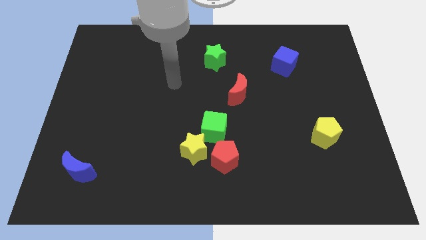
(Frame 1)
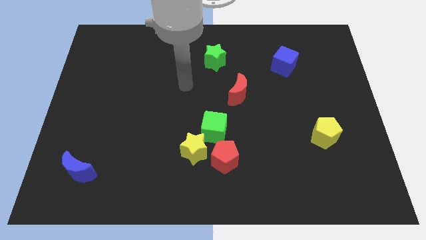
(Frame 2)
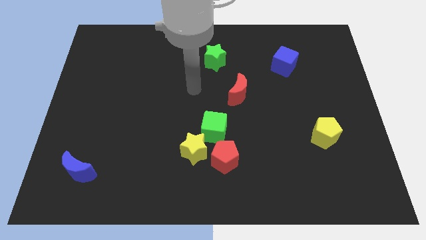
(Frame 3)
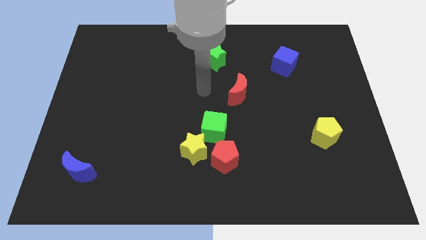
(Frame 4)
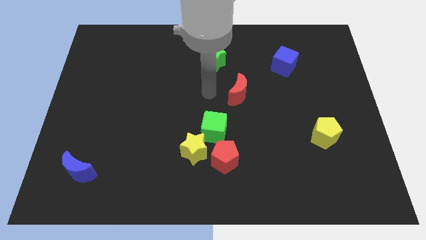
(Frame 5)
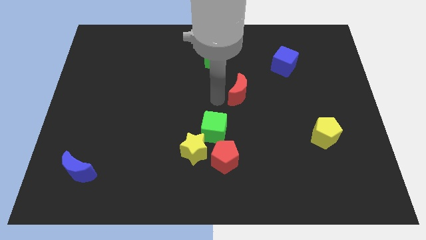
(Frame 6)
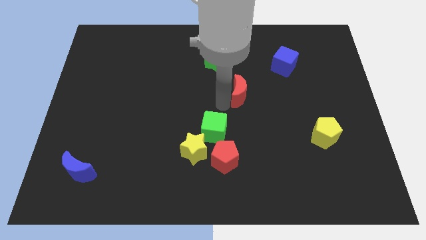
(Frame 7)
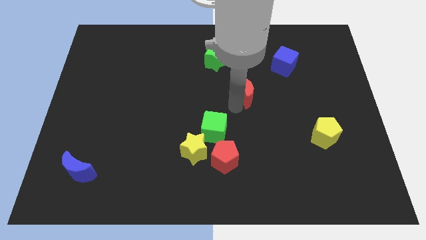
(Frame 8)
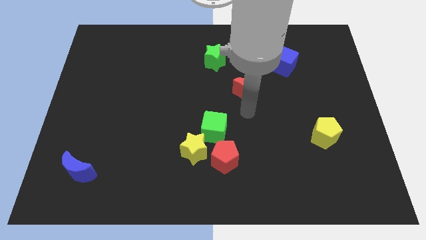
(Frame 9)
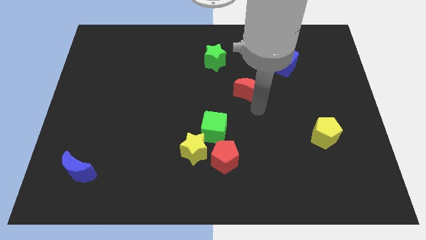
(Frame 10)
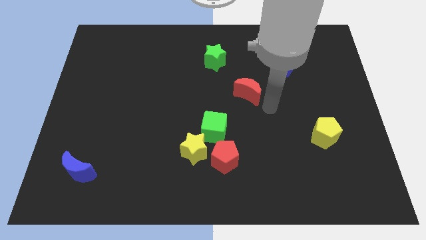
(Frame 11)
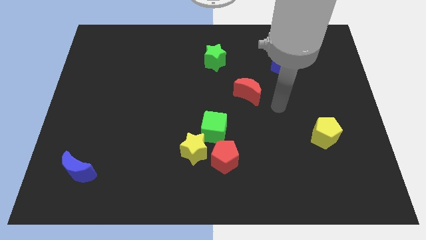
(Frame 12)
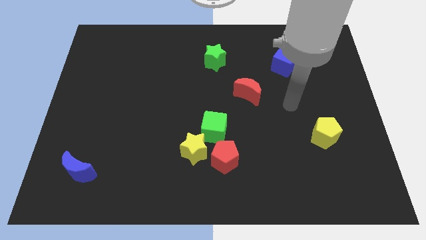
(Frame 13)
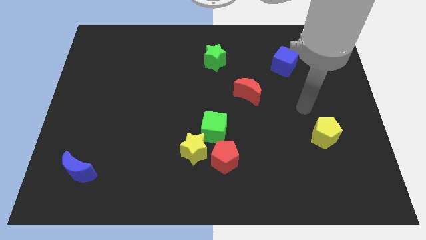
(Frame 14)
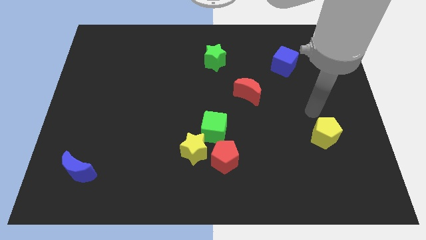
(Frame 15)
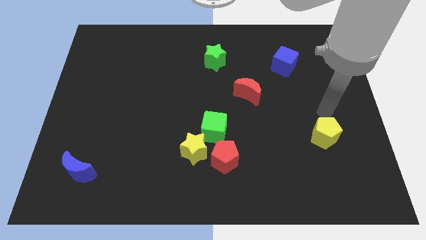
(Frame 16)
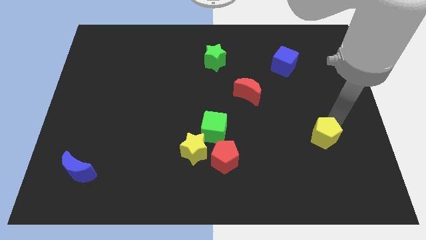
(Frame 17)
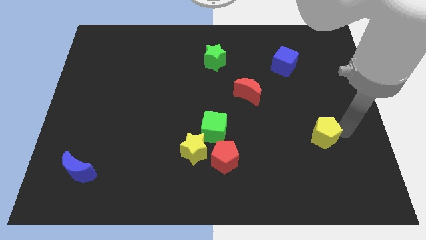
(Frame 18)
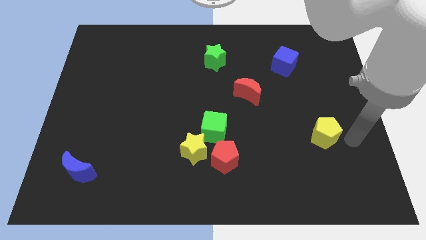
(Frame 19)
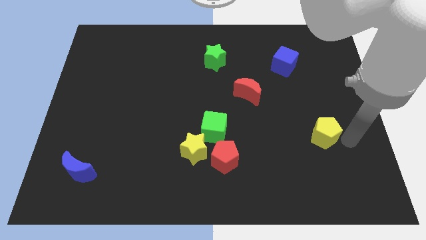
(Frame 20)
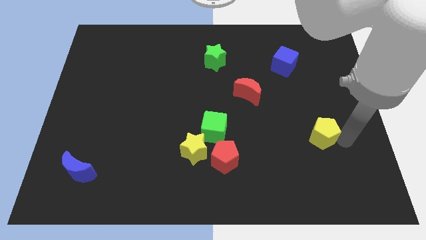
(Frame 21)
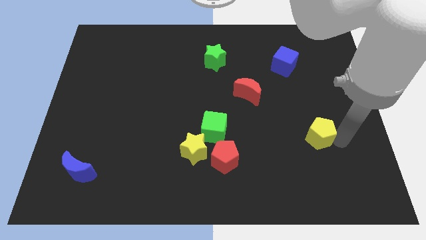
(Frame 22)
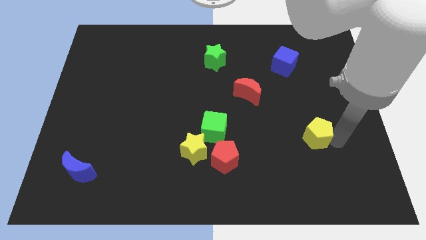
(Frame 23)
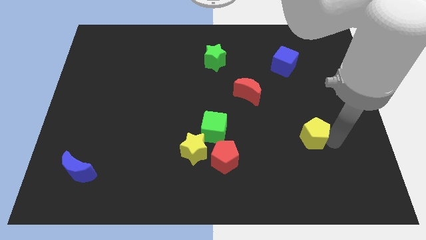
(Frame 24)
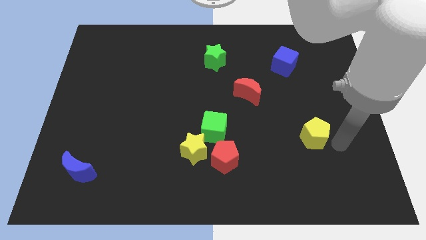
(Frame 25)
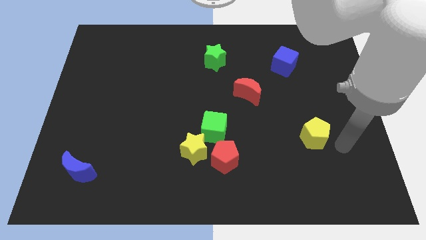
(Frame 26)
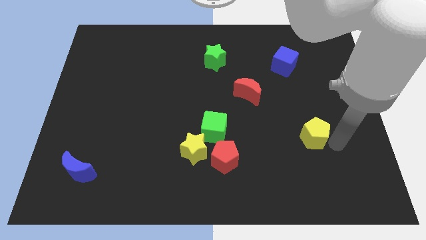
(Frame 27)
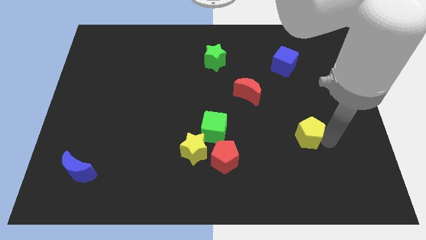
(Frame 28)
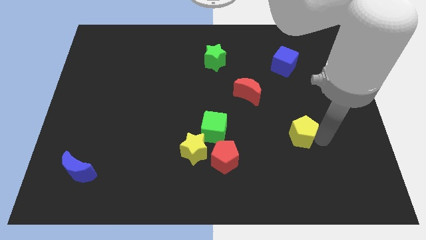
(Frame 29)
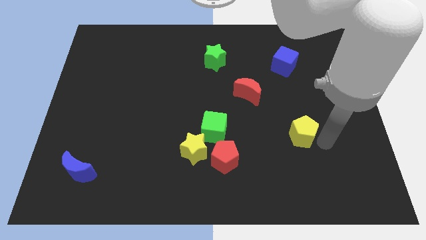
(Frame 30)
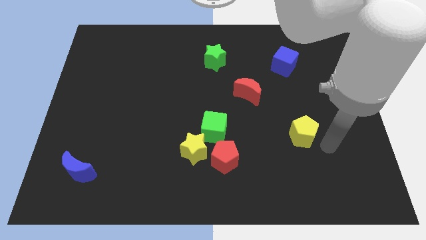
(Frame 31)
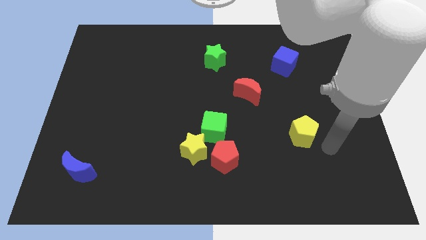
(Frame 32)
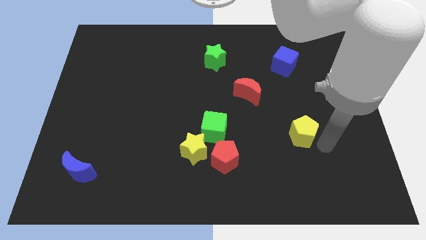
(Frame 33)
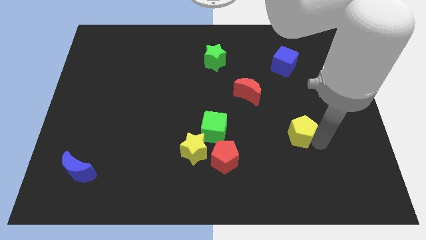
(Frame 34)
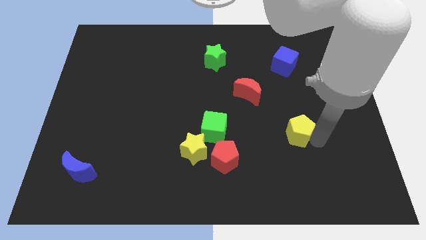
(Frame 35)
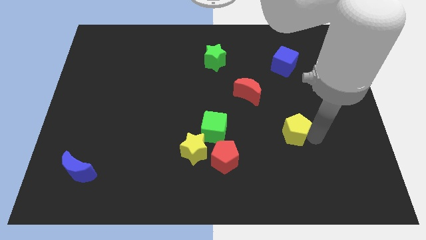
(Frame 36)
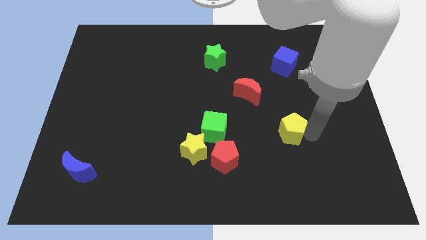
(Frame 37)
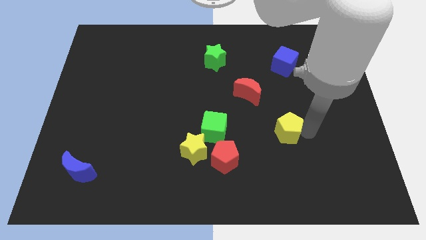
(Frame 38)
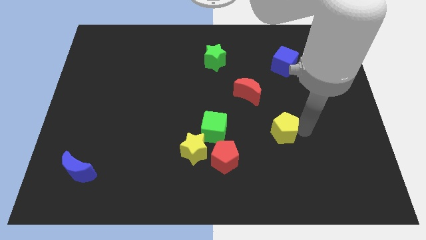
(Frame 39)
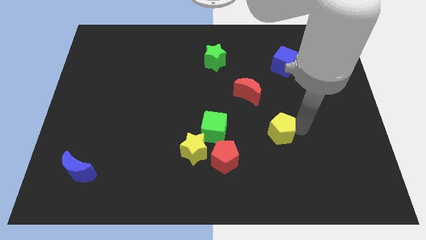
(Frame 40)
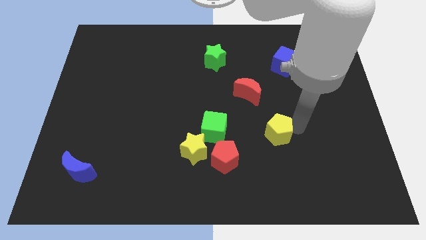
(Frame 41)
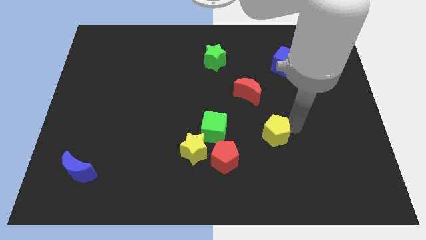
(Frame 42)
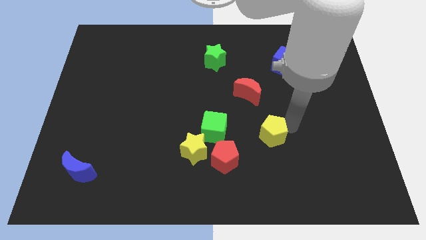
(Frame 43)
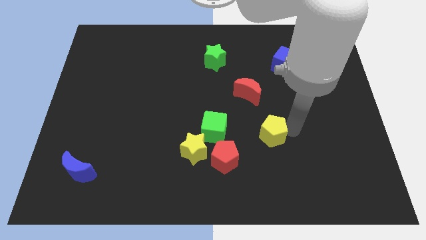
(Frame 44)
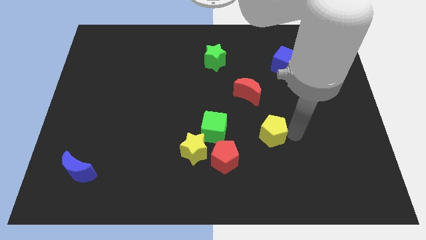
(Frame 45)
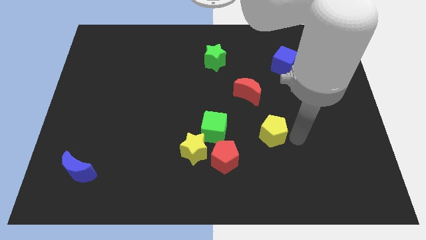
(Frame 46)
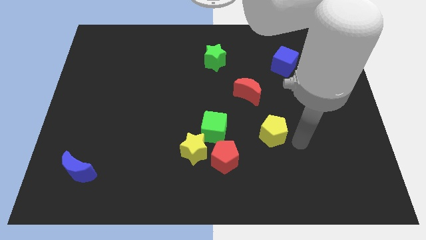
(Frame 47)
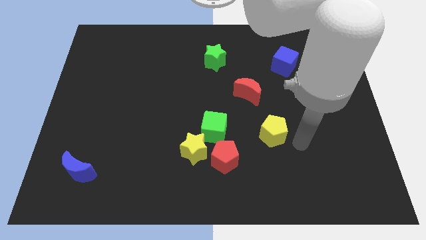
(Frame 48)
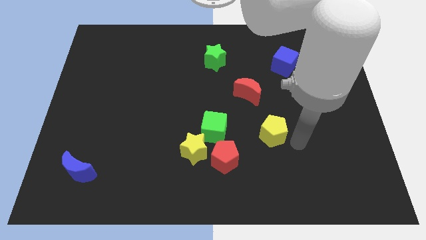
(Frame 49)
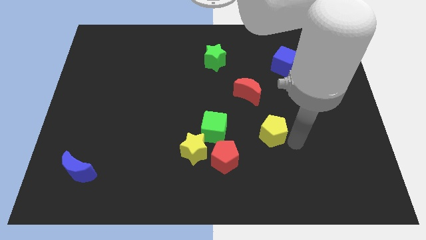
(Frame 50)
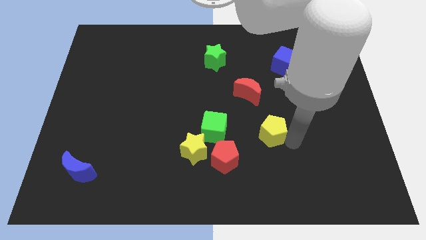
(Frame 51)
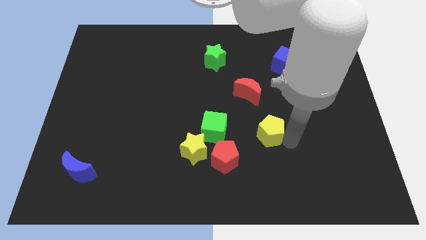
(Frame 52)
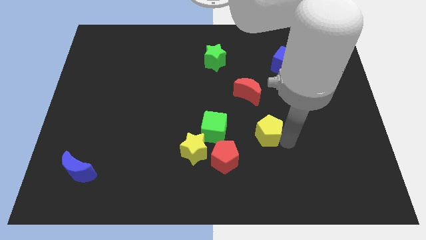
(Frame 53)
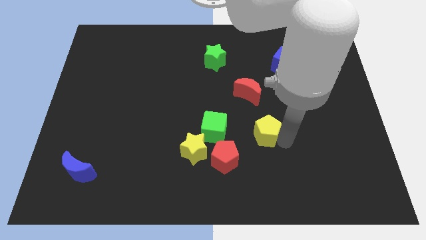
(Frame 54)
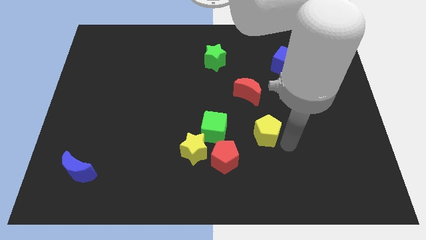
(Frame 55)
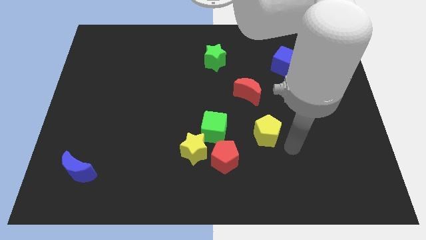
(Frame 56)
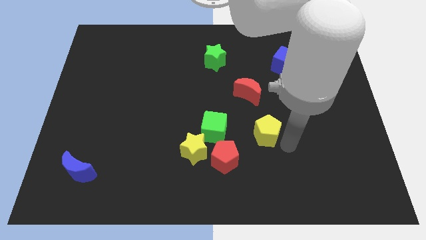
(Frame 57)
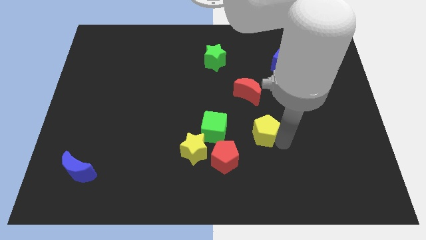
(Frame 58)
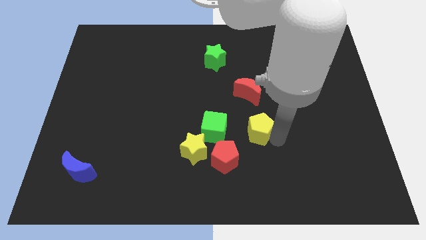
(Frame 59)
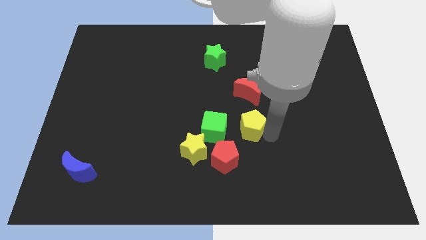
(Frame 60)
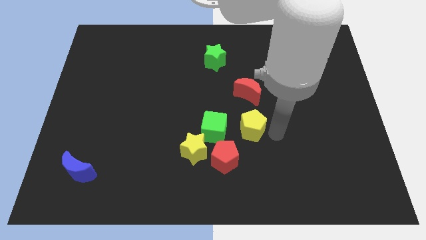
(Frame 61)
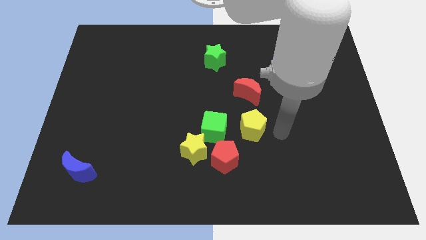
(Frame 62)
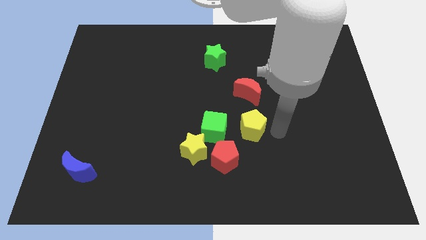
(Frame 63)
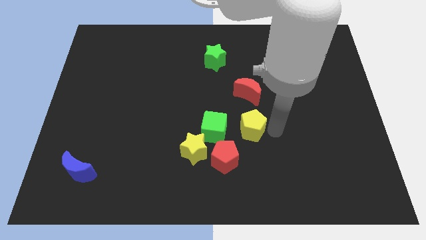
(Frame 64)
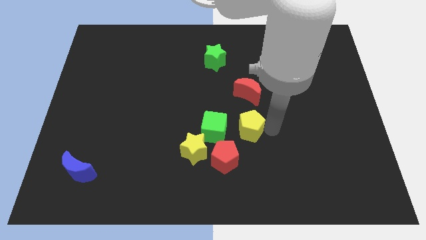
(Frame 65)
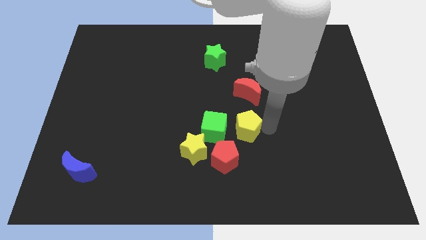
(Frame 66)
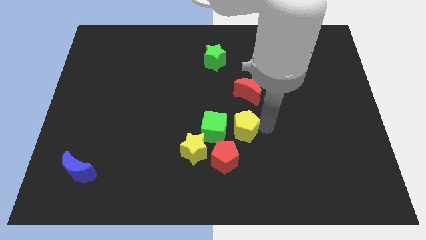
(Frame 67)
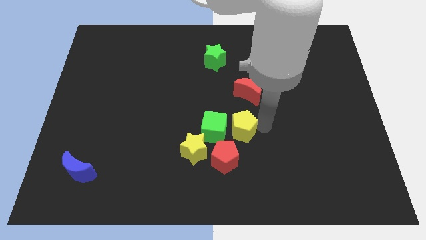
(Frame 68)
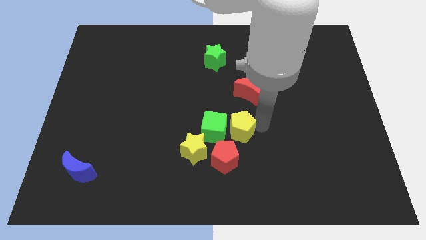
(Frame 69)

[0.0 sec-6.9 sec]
move the yellow pentagon to the green cube
